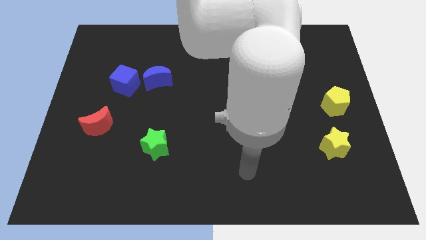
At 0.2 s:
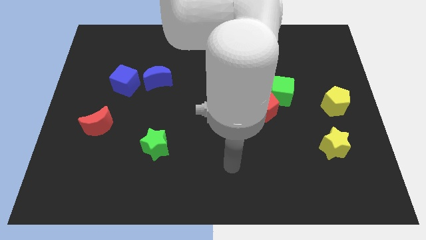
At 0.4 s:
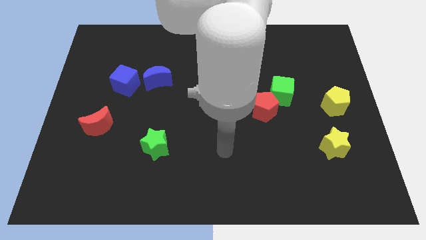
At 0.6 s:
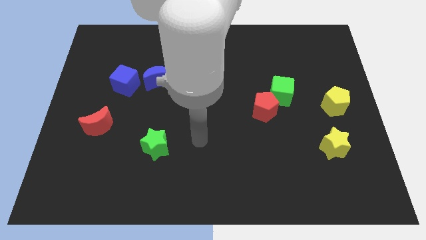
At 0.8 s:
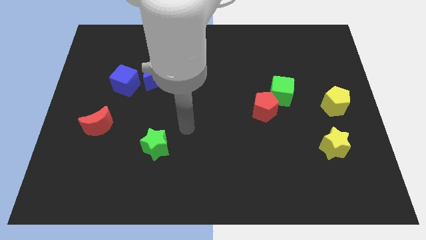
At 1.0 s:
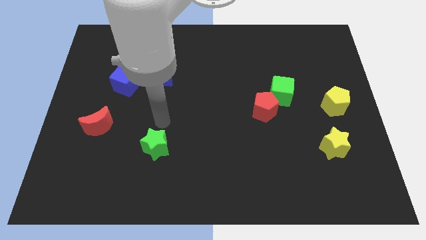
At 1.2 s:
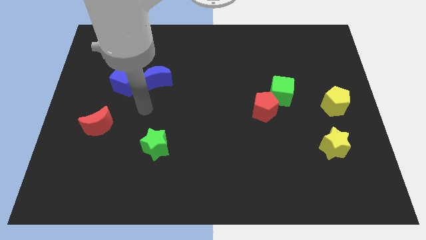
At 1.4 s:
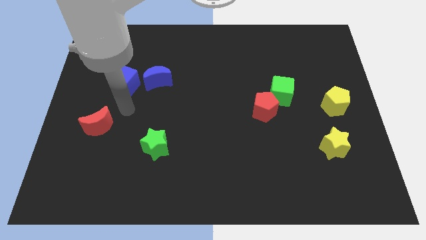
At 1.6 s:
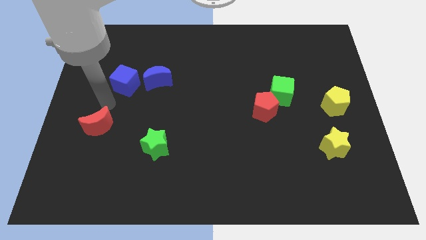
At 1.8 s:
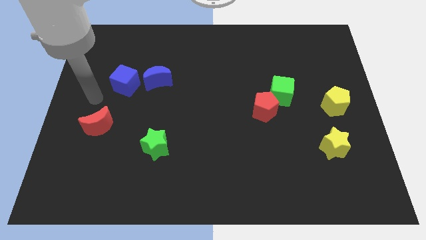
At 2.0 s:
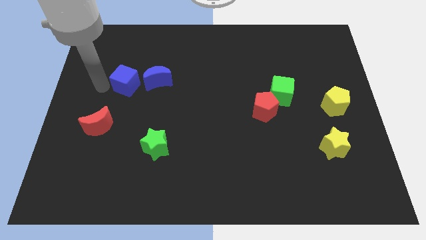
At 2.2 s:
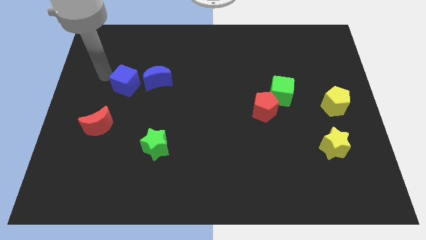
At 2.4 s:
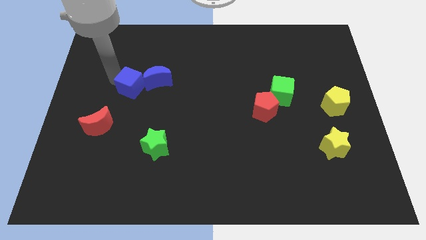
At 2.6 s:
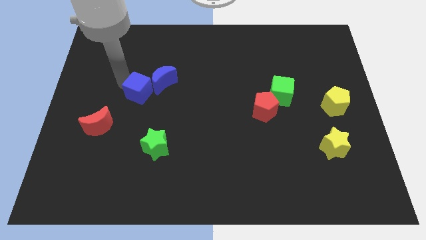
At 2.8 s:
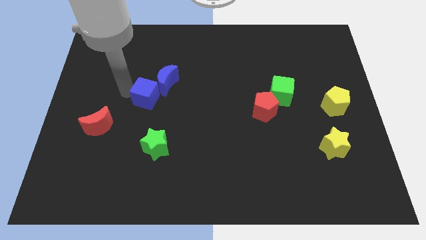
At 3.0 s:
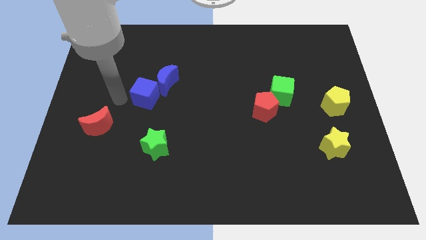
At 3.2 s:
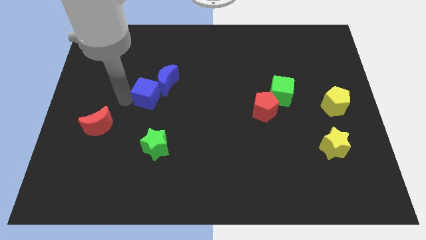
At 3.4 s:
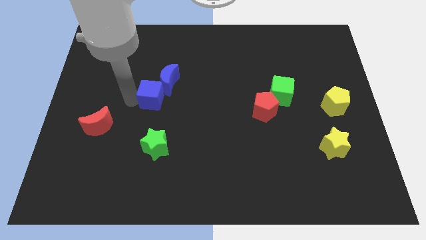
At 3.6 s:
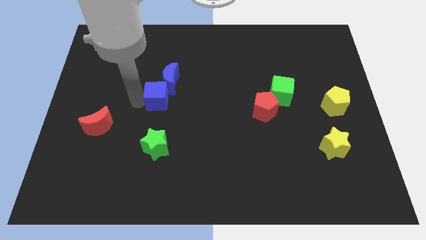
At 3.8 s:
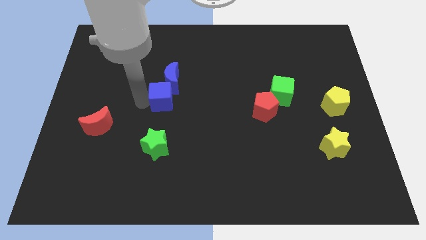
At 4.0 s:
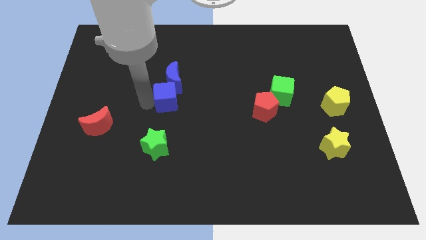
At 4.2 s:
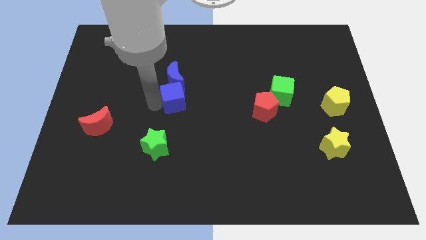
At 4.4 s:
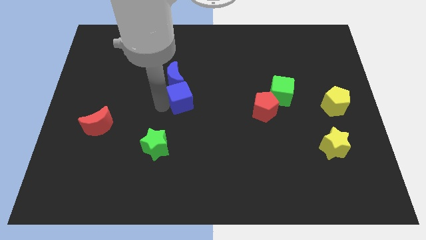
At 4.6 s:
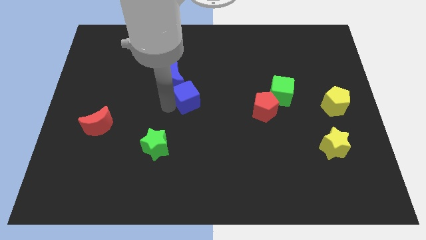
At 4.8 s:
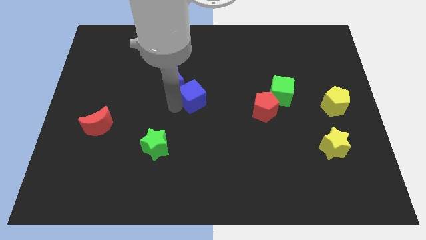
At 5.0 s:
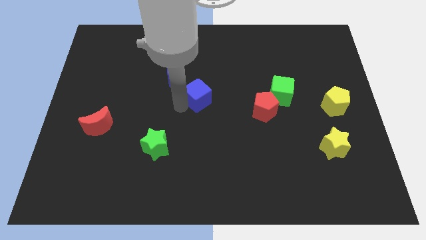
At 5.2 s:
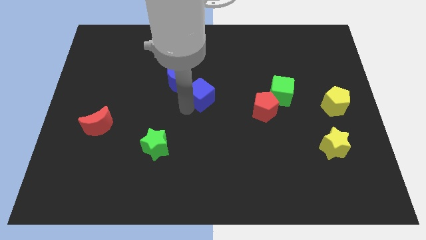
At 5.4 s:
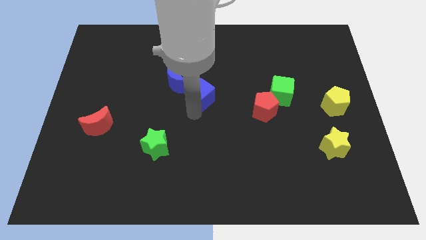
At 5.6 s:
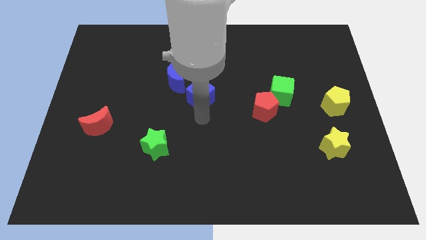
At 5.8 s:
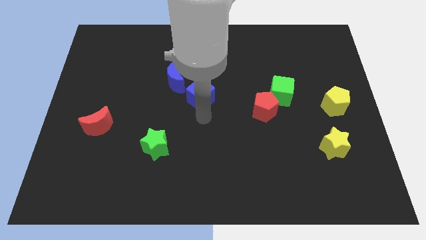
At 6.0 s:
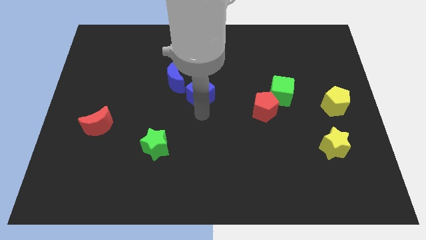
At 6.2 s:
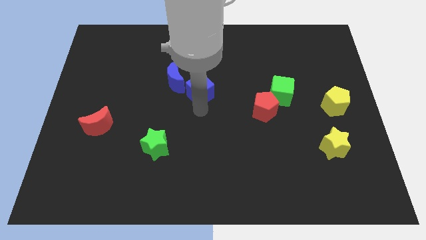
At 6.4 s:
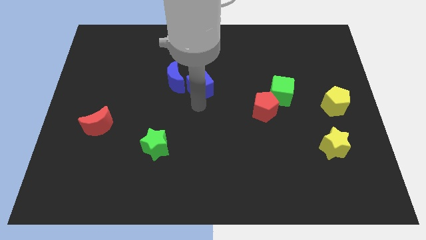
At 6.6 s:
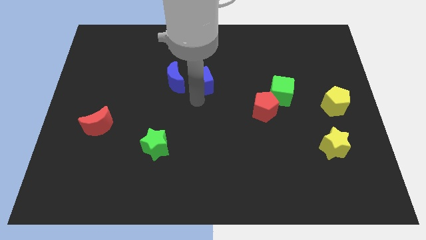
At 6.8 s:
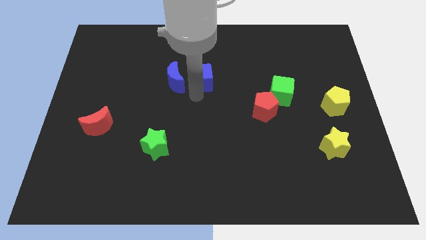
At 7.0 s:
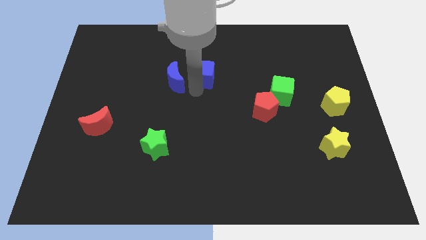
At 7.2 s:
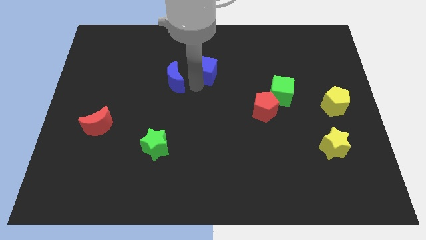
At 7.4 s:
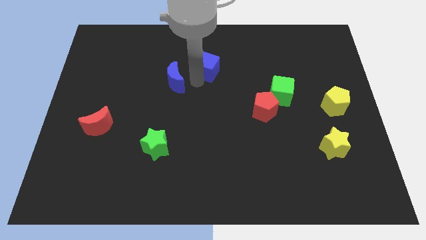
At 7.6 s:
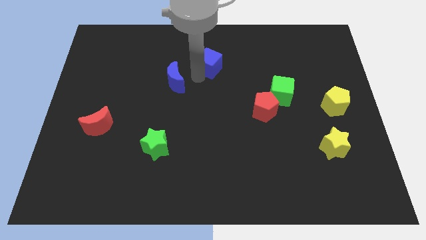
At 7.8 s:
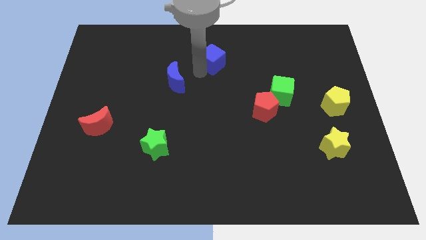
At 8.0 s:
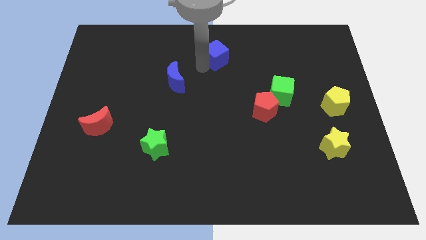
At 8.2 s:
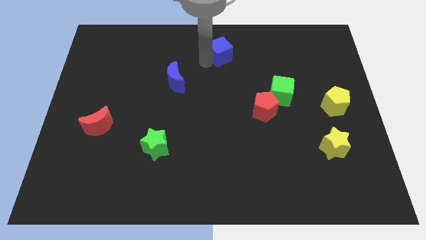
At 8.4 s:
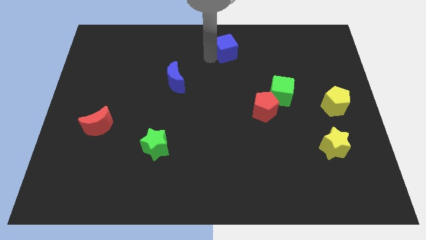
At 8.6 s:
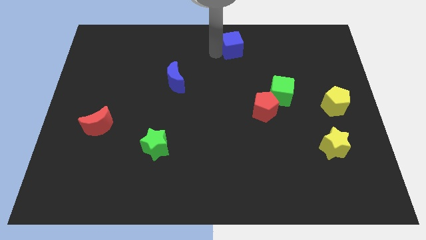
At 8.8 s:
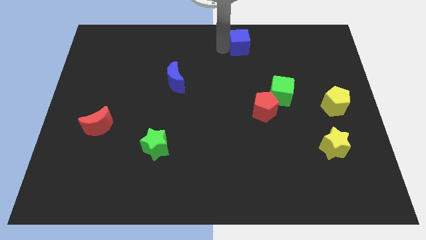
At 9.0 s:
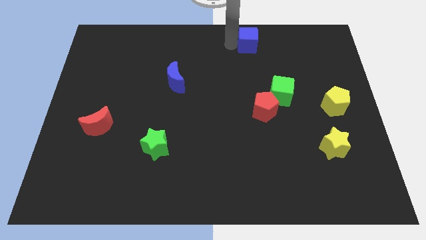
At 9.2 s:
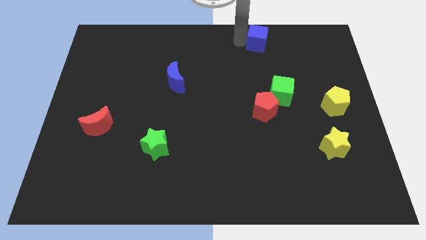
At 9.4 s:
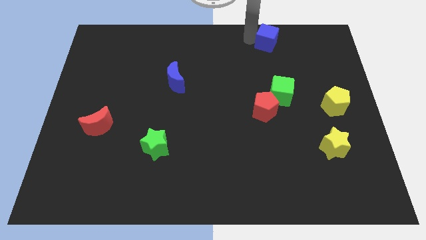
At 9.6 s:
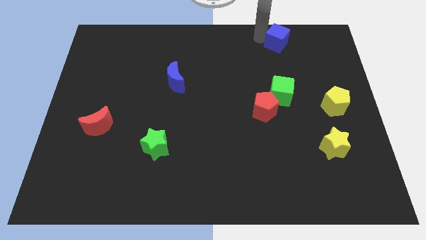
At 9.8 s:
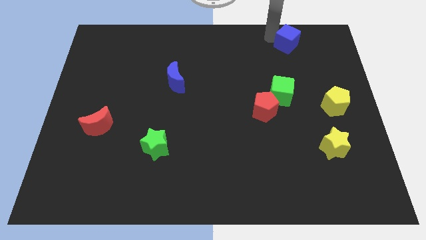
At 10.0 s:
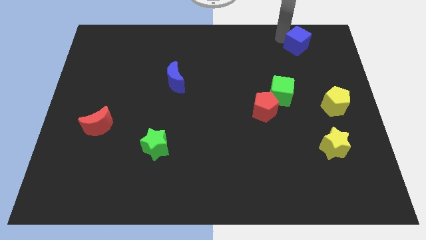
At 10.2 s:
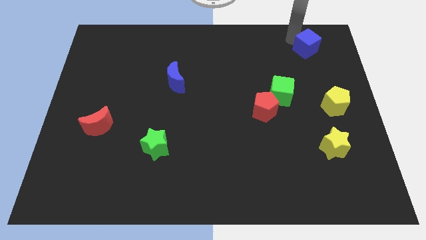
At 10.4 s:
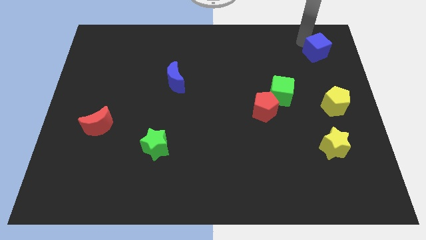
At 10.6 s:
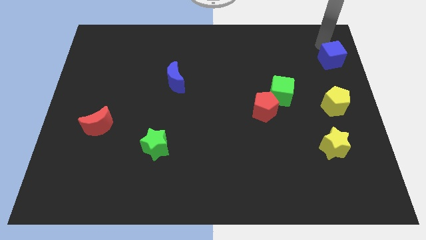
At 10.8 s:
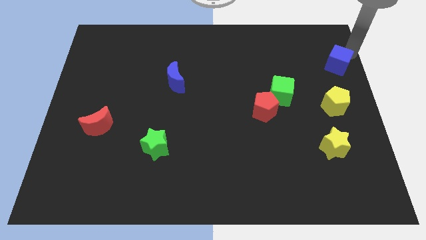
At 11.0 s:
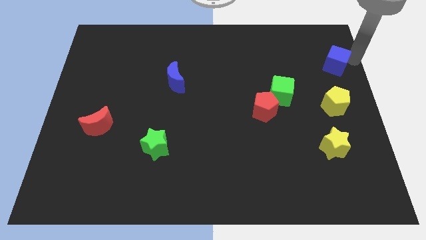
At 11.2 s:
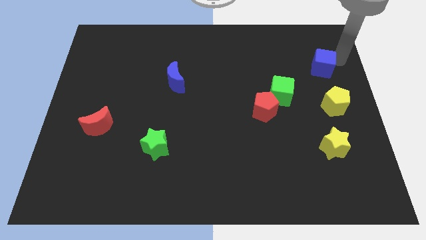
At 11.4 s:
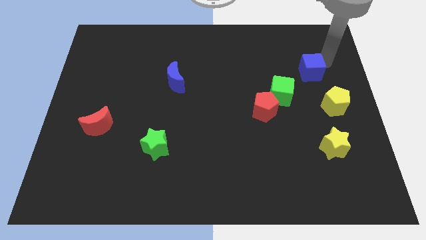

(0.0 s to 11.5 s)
push the blue cube diagonally up and to the right of the green cube

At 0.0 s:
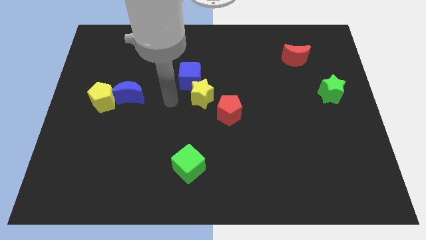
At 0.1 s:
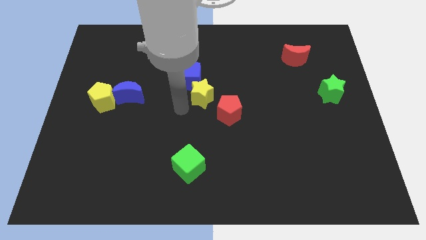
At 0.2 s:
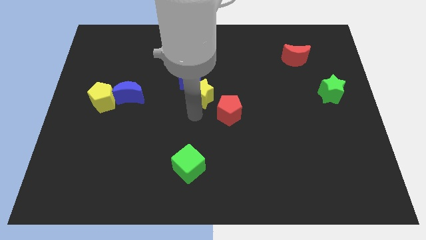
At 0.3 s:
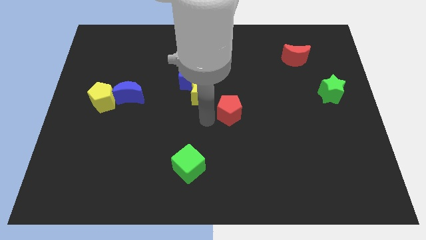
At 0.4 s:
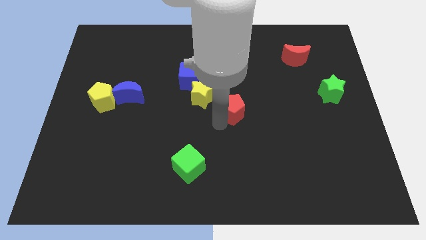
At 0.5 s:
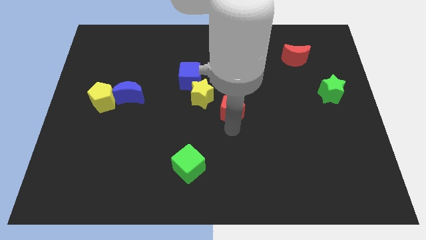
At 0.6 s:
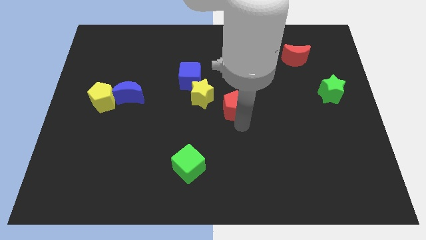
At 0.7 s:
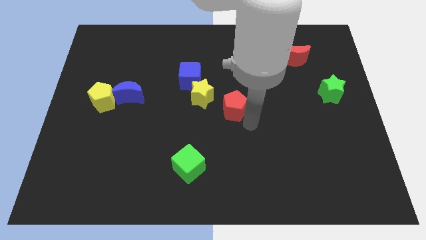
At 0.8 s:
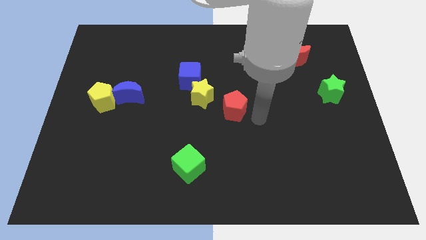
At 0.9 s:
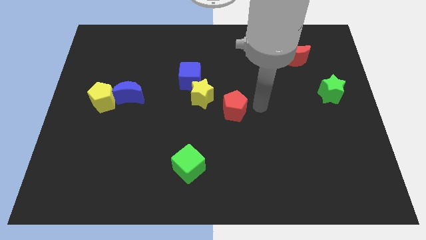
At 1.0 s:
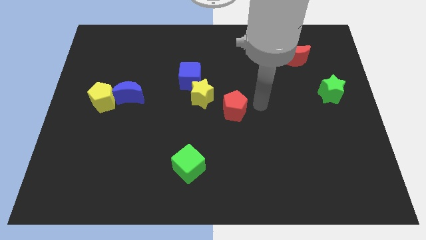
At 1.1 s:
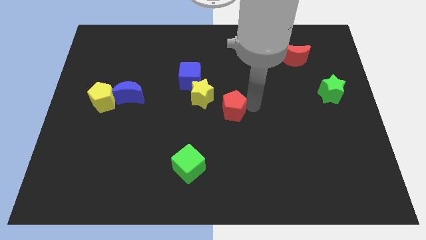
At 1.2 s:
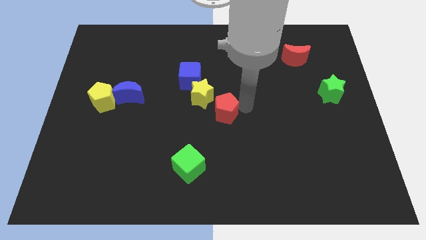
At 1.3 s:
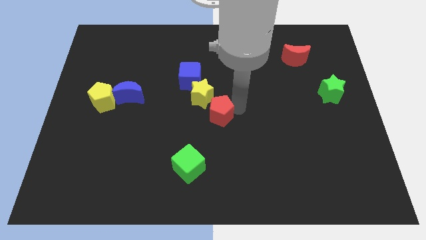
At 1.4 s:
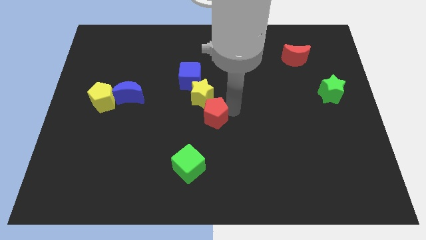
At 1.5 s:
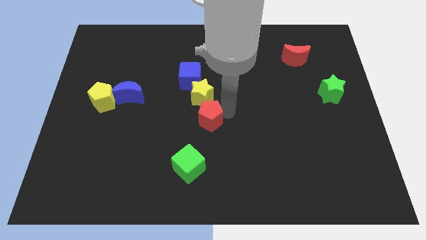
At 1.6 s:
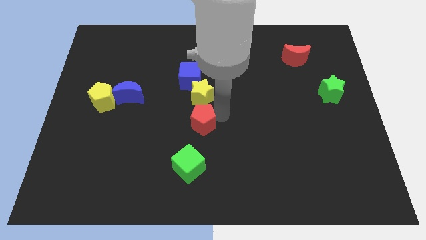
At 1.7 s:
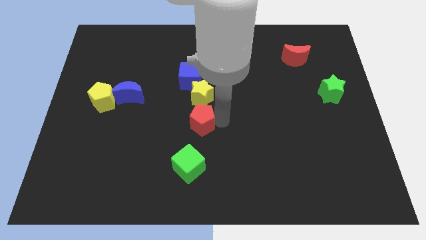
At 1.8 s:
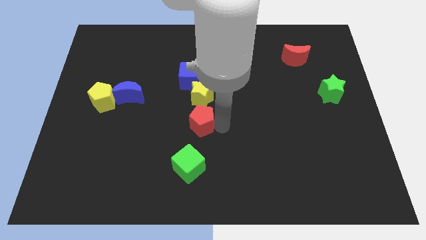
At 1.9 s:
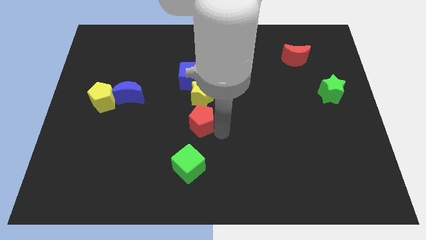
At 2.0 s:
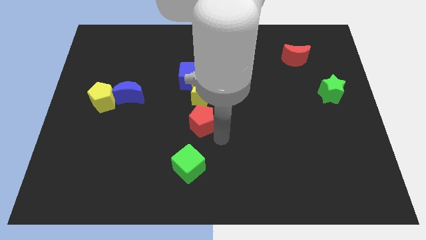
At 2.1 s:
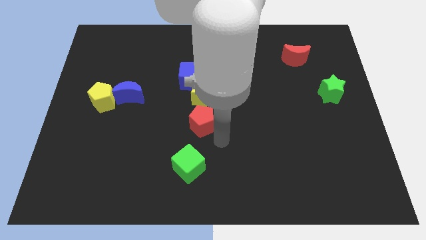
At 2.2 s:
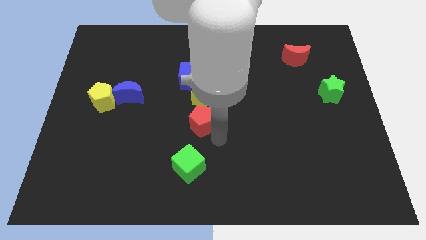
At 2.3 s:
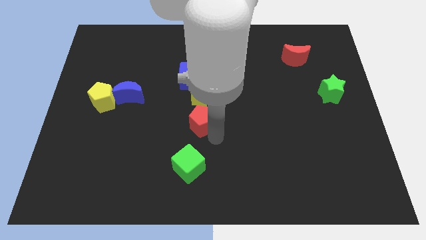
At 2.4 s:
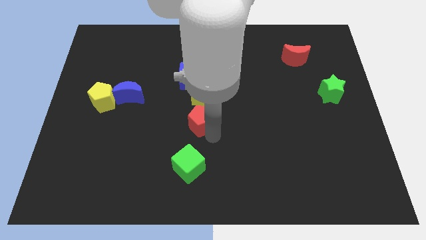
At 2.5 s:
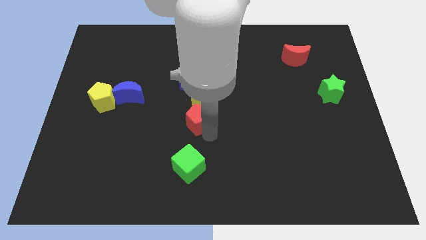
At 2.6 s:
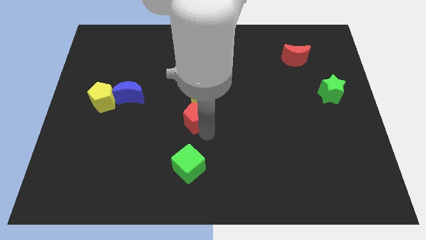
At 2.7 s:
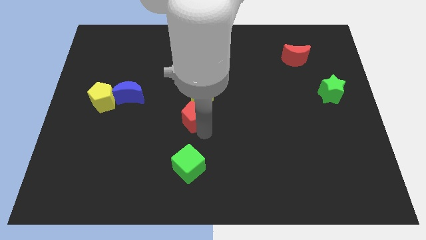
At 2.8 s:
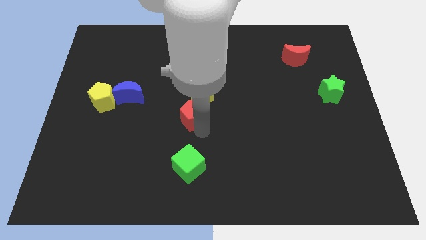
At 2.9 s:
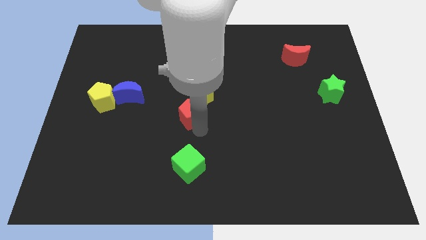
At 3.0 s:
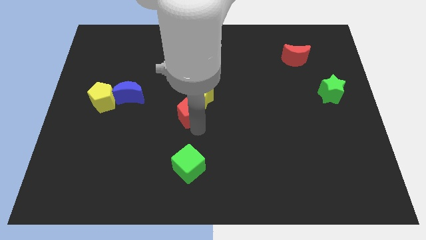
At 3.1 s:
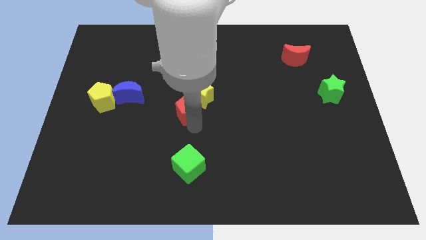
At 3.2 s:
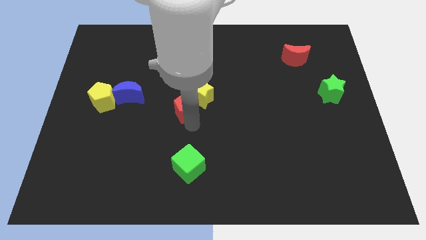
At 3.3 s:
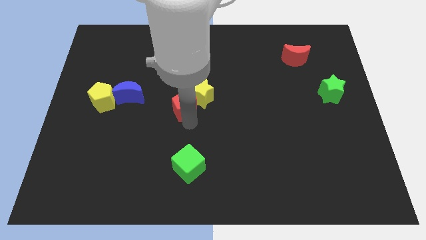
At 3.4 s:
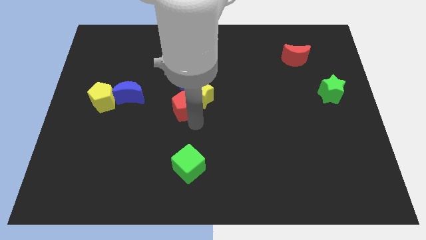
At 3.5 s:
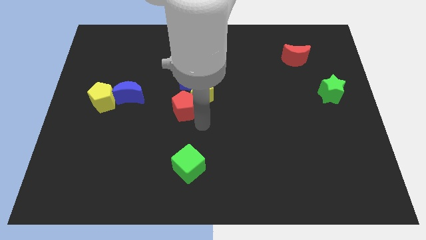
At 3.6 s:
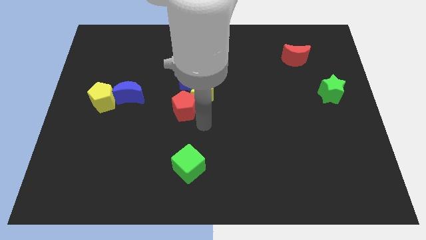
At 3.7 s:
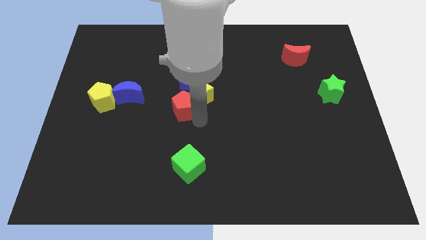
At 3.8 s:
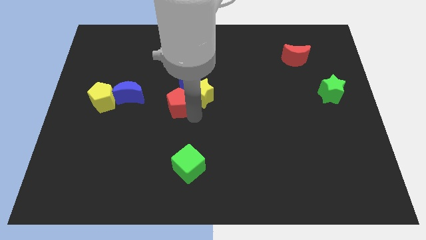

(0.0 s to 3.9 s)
move the red pentagon diagonally down and to the left of the blue cube
